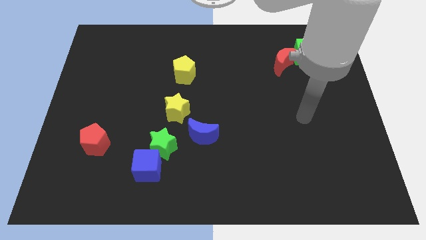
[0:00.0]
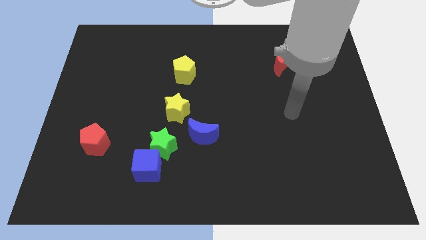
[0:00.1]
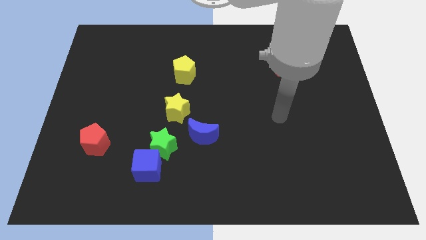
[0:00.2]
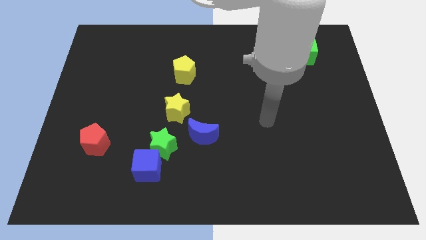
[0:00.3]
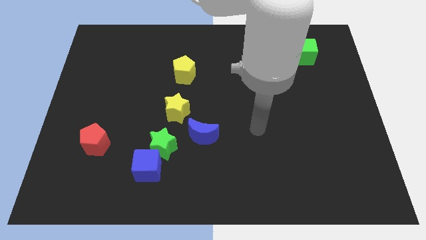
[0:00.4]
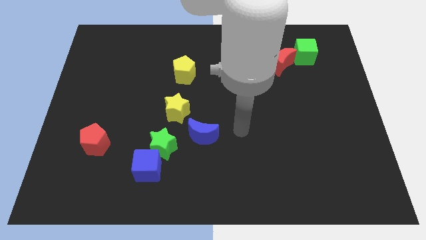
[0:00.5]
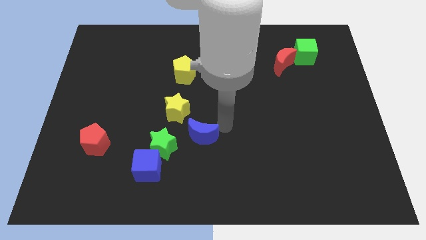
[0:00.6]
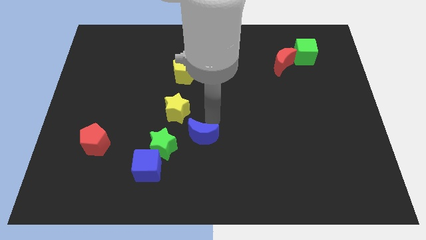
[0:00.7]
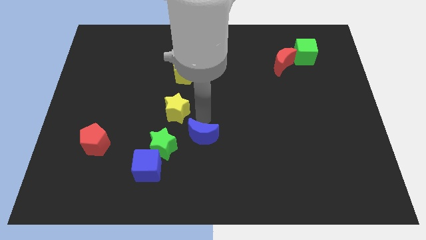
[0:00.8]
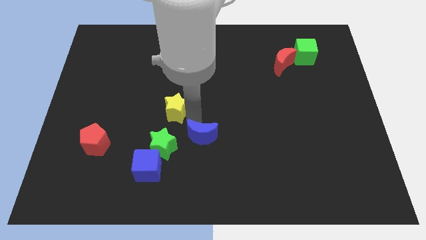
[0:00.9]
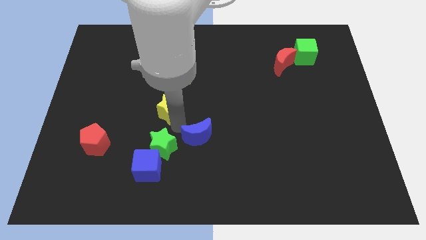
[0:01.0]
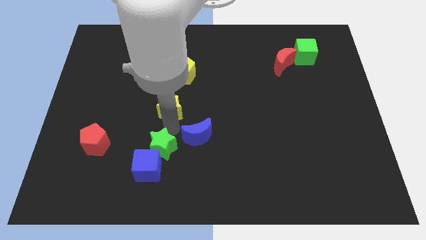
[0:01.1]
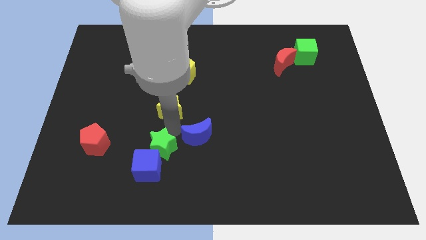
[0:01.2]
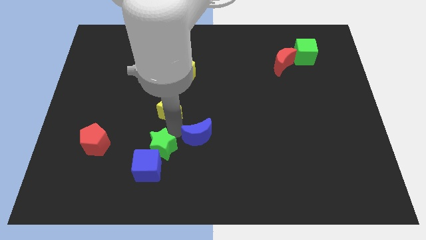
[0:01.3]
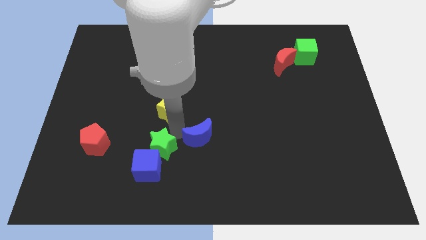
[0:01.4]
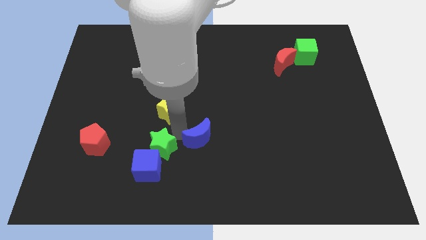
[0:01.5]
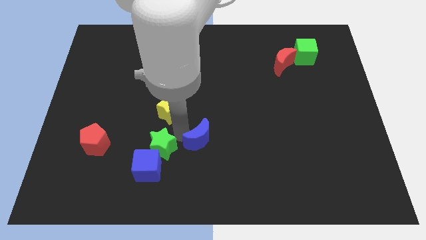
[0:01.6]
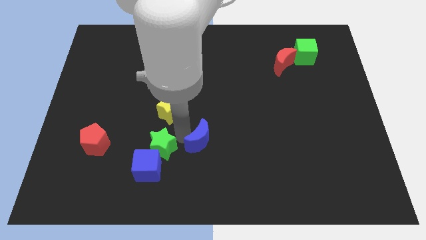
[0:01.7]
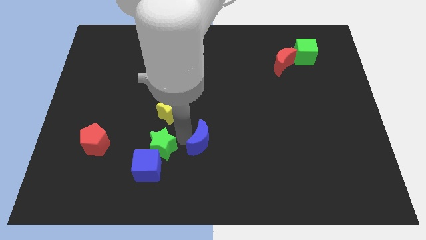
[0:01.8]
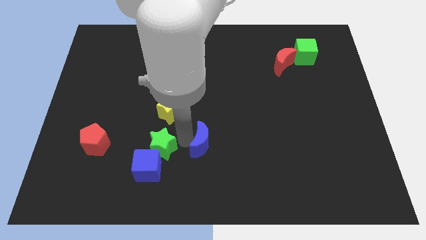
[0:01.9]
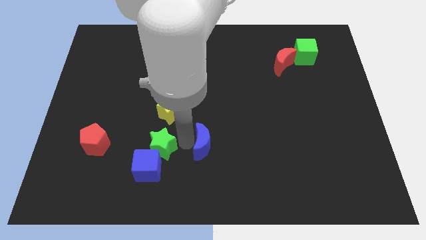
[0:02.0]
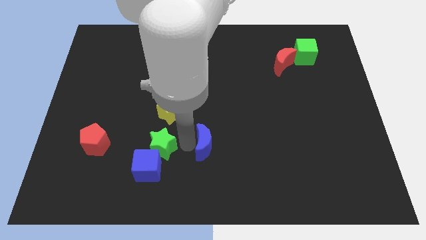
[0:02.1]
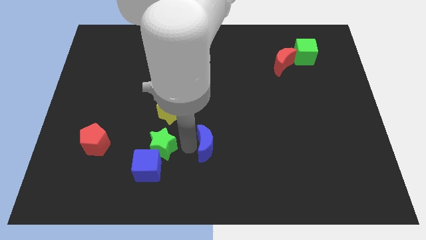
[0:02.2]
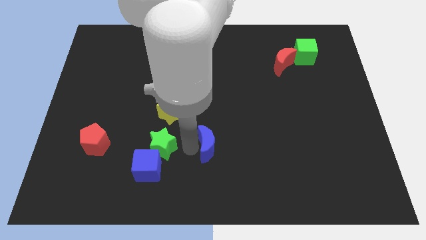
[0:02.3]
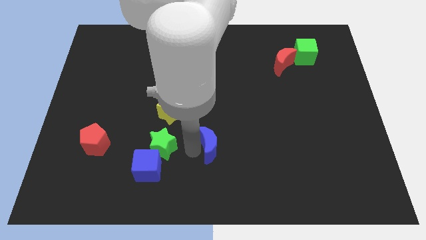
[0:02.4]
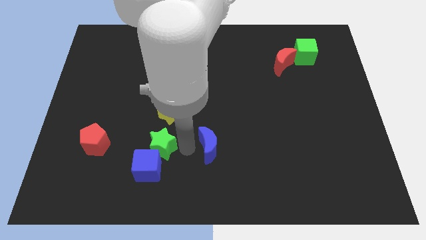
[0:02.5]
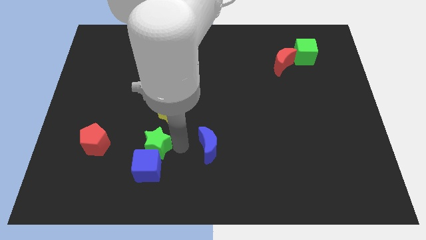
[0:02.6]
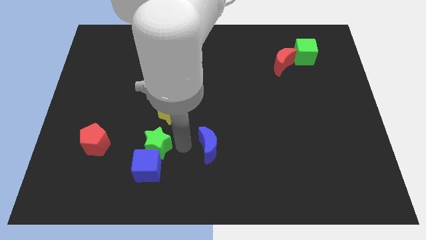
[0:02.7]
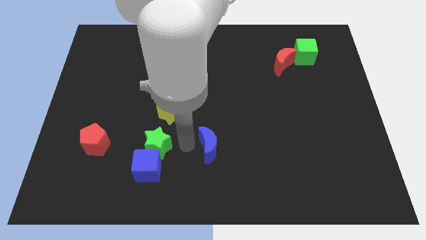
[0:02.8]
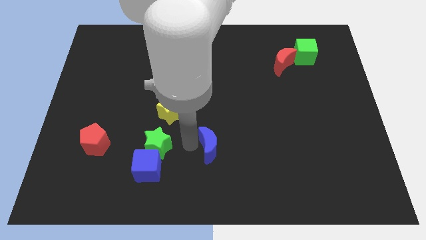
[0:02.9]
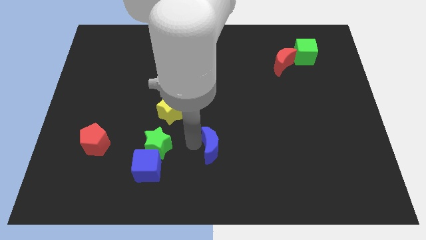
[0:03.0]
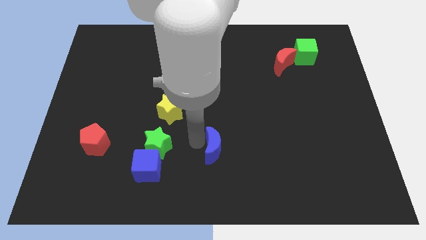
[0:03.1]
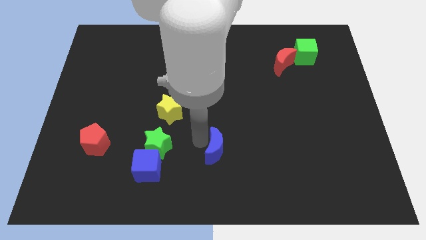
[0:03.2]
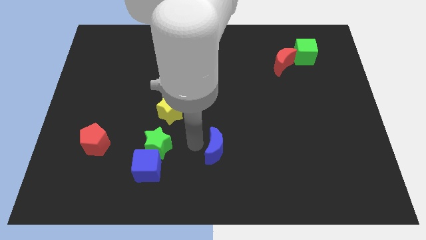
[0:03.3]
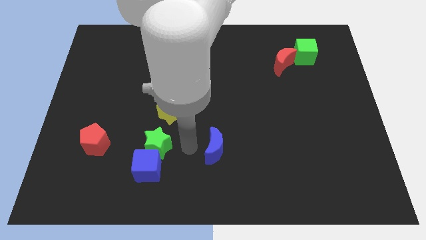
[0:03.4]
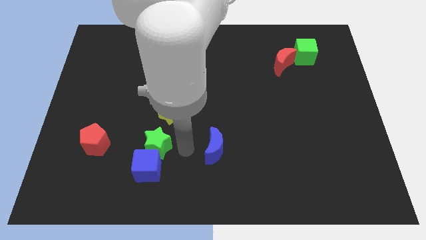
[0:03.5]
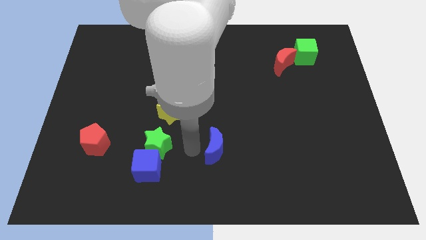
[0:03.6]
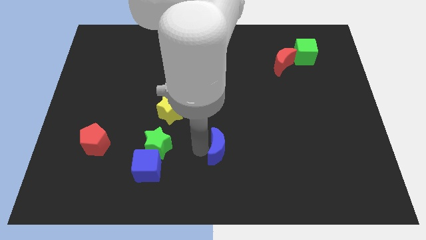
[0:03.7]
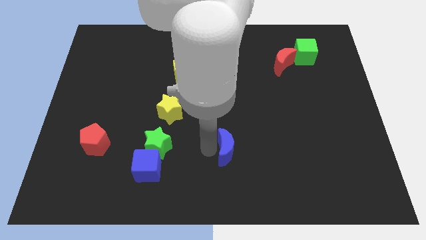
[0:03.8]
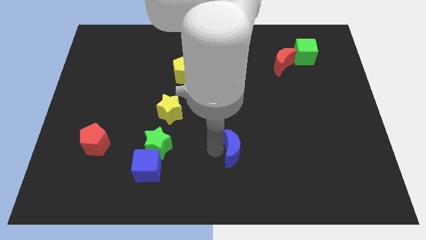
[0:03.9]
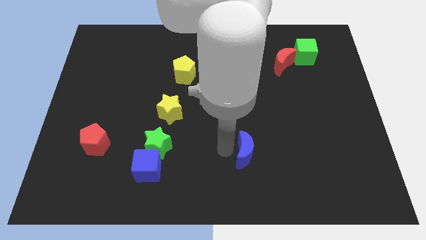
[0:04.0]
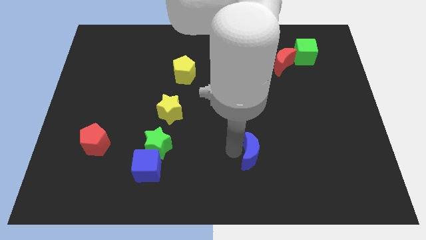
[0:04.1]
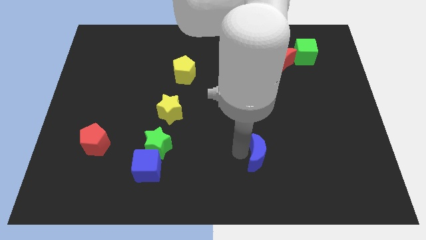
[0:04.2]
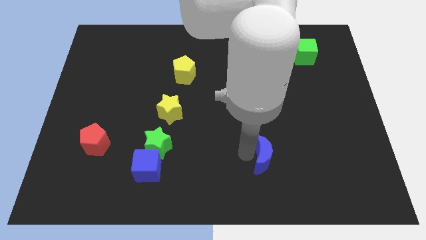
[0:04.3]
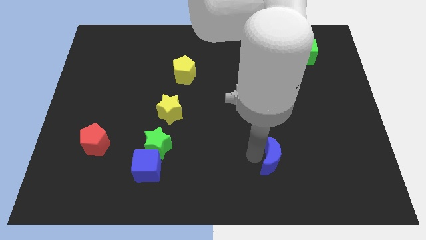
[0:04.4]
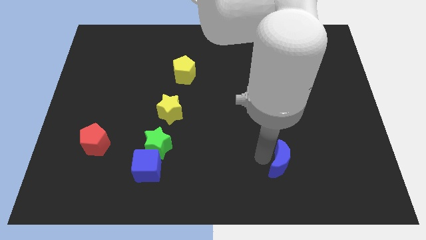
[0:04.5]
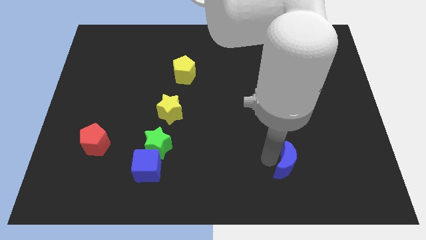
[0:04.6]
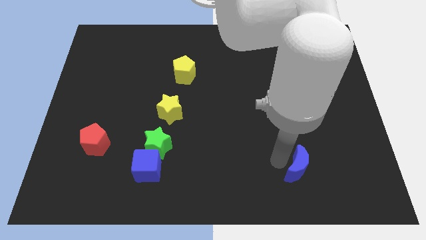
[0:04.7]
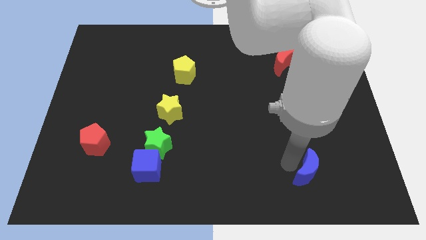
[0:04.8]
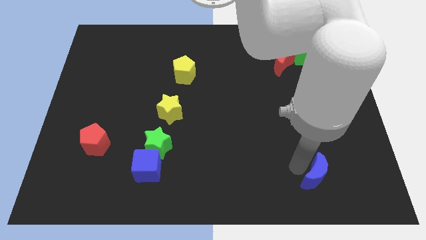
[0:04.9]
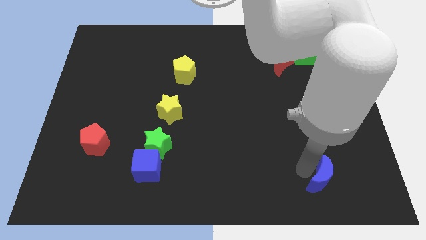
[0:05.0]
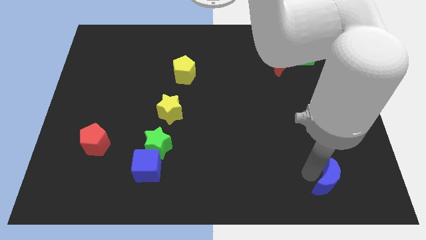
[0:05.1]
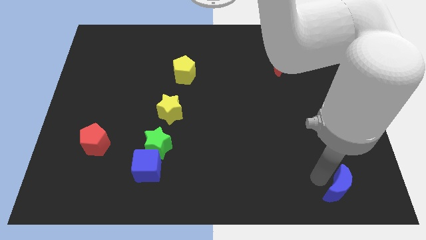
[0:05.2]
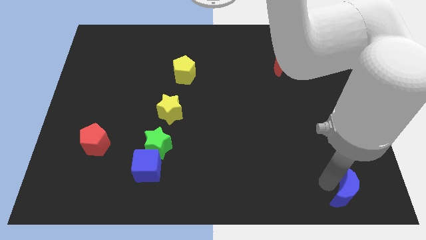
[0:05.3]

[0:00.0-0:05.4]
slide the blue moon to the bottom right

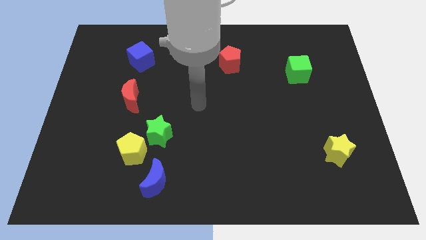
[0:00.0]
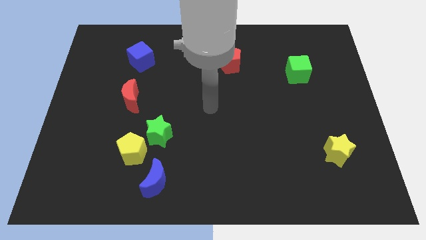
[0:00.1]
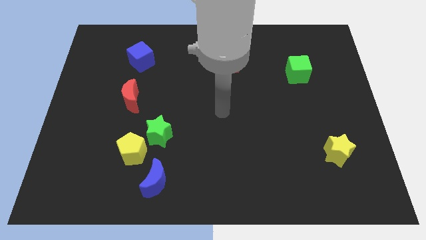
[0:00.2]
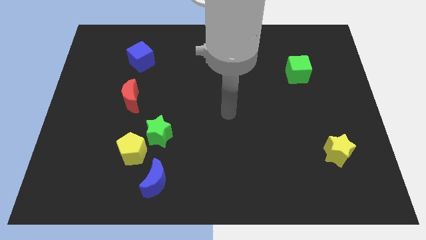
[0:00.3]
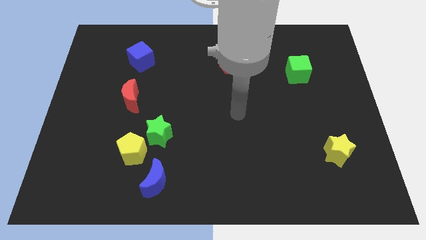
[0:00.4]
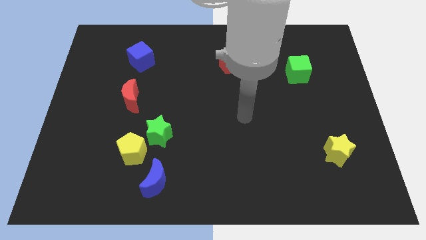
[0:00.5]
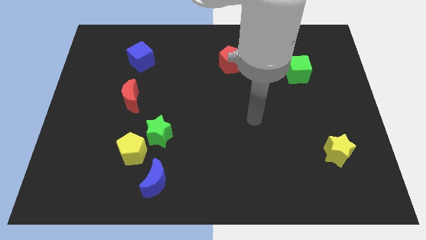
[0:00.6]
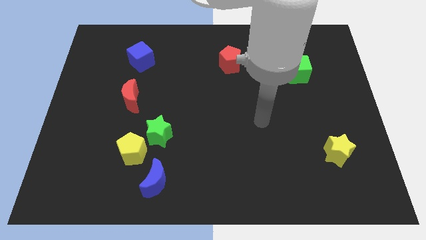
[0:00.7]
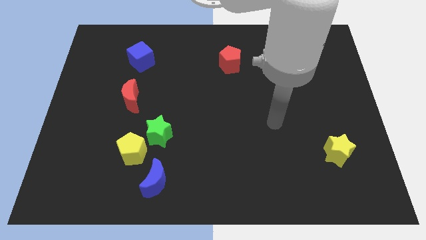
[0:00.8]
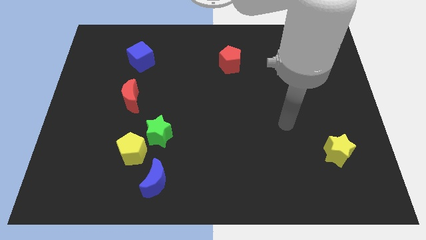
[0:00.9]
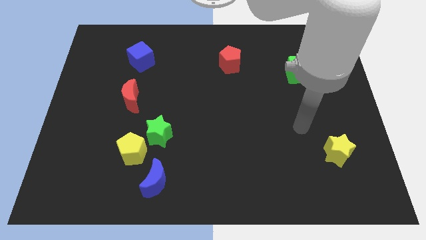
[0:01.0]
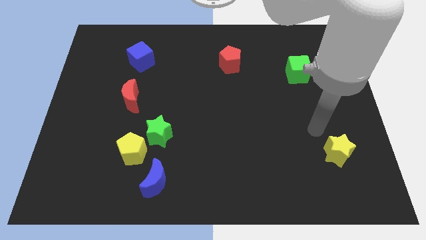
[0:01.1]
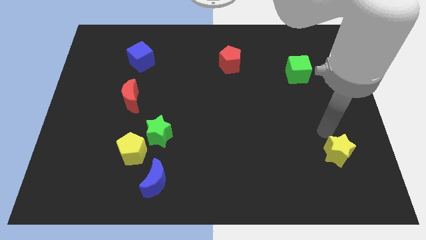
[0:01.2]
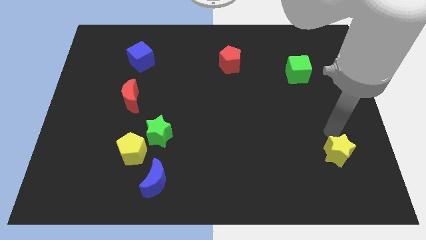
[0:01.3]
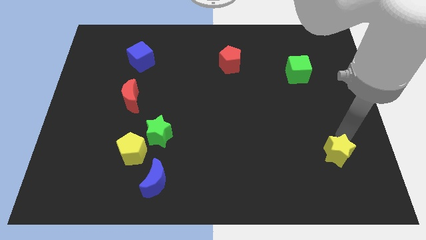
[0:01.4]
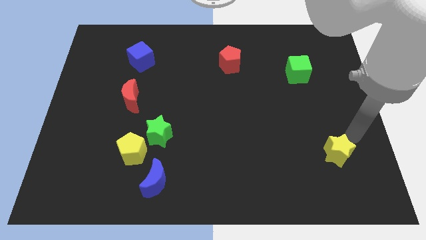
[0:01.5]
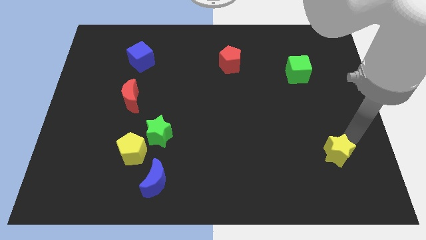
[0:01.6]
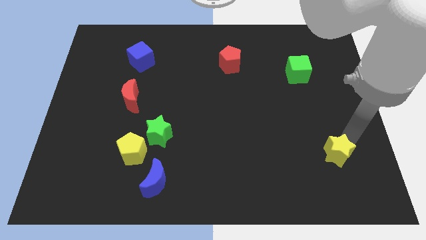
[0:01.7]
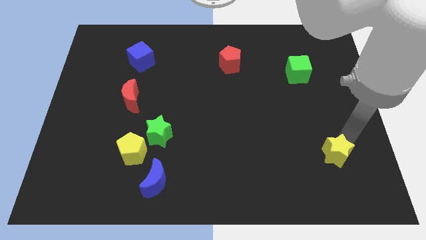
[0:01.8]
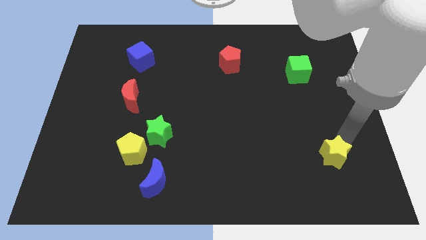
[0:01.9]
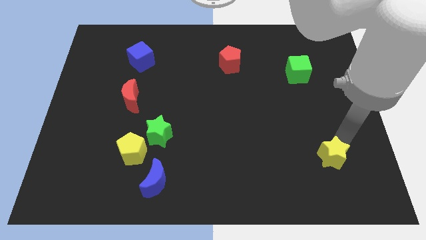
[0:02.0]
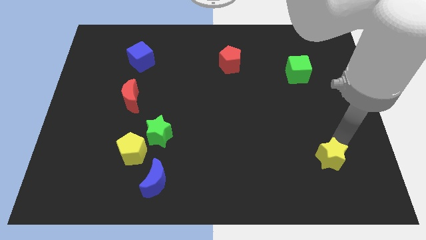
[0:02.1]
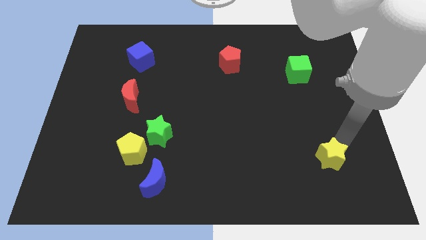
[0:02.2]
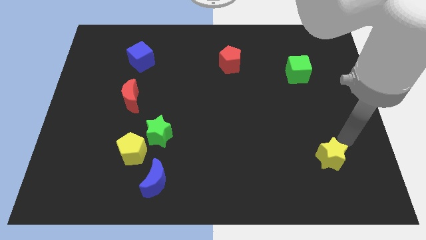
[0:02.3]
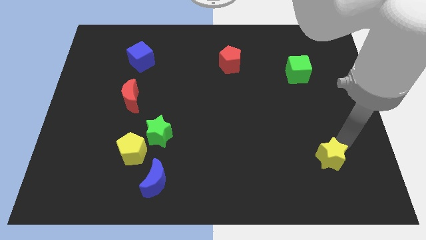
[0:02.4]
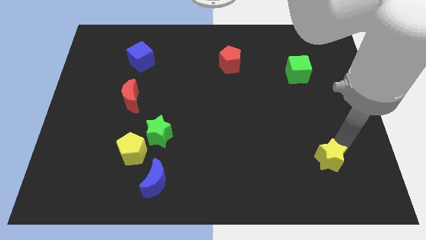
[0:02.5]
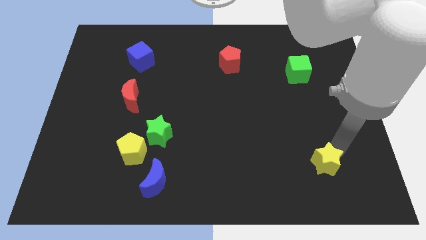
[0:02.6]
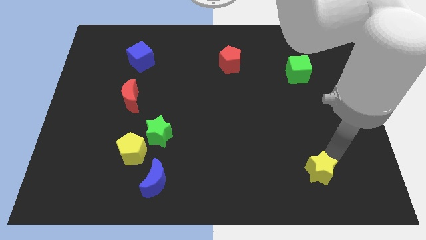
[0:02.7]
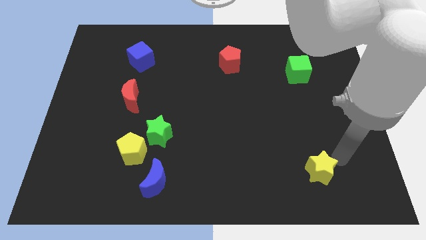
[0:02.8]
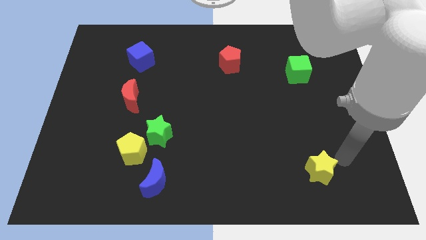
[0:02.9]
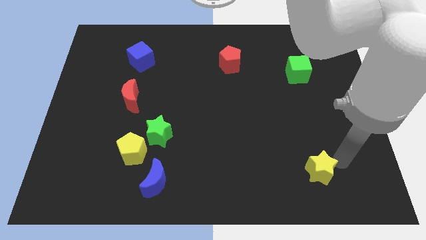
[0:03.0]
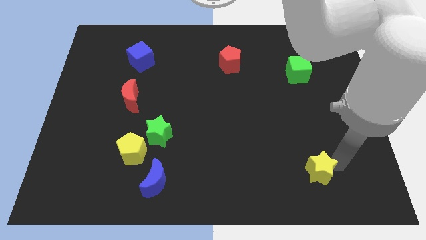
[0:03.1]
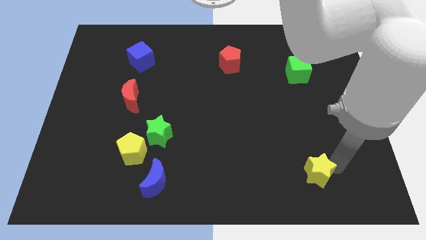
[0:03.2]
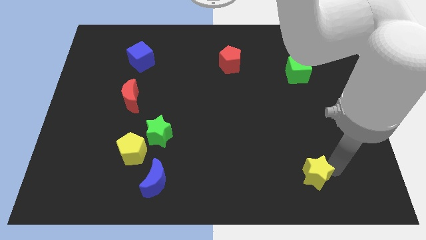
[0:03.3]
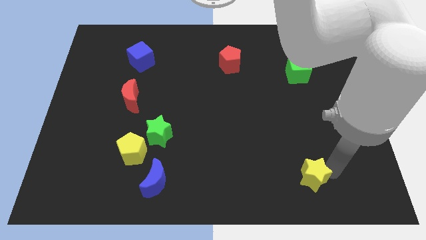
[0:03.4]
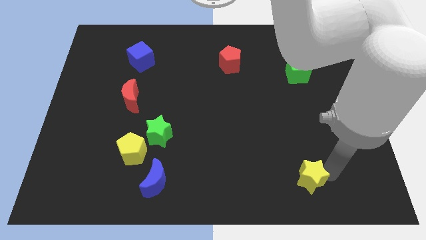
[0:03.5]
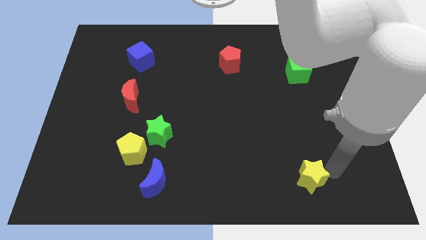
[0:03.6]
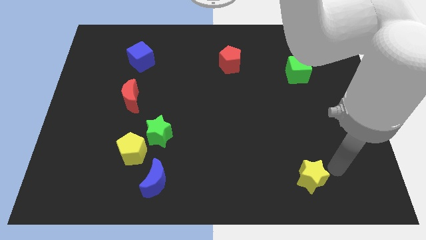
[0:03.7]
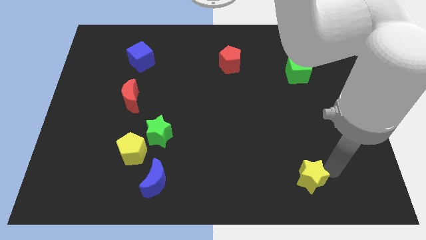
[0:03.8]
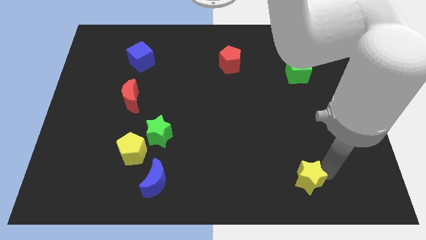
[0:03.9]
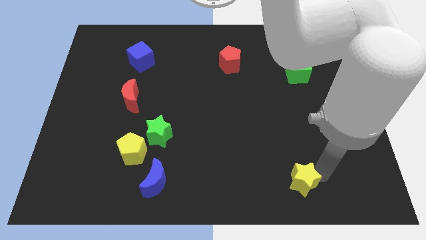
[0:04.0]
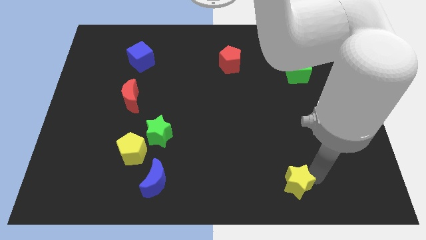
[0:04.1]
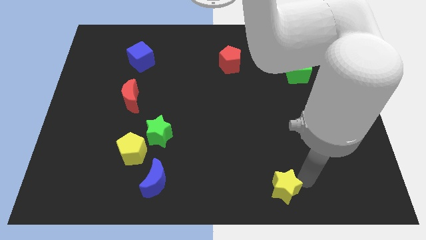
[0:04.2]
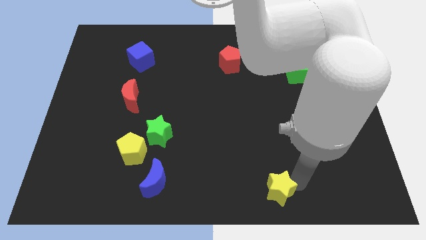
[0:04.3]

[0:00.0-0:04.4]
put the yellow star to the bottom side
